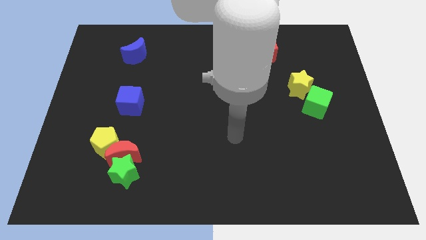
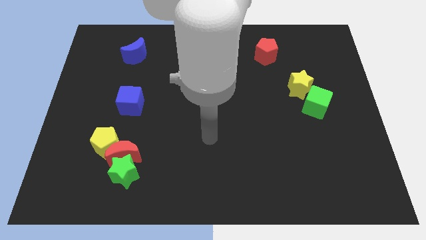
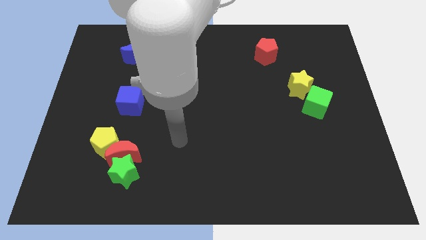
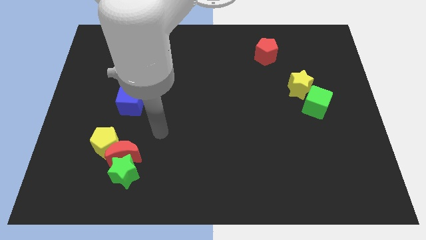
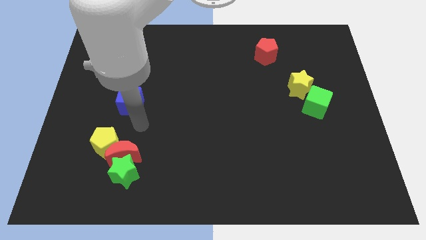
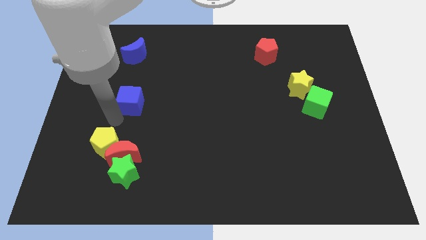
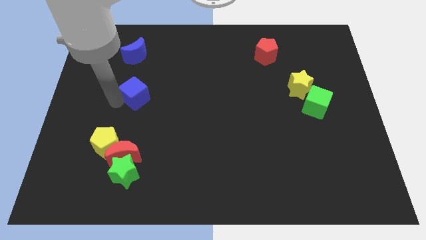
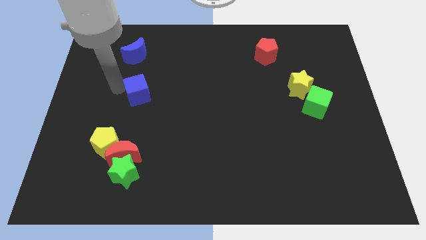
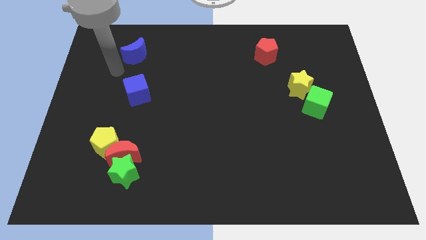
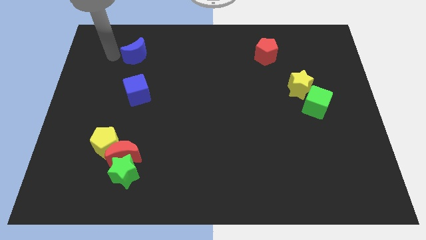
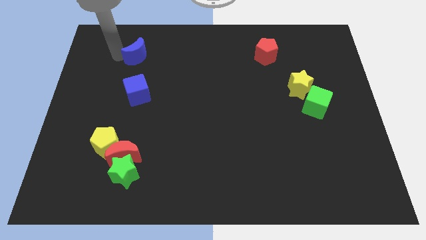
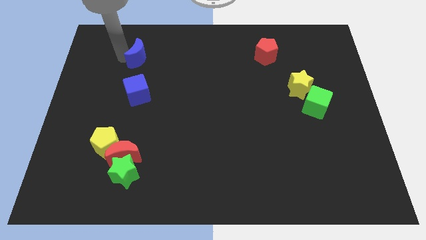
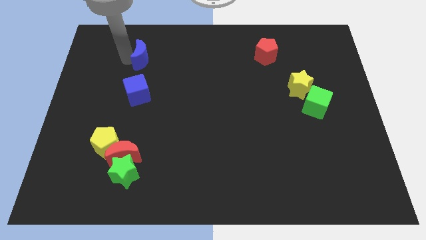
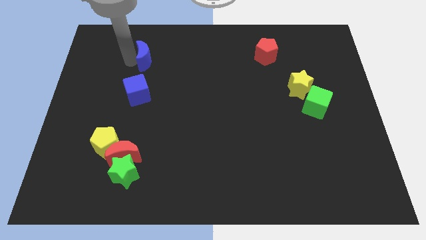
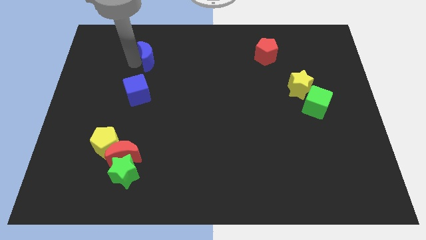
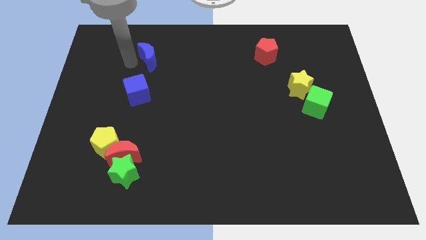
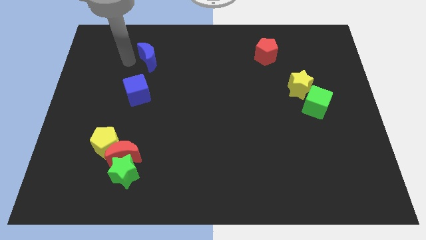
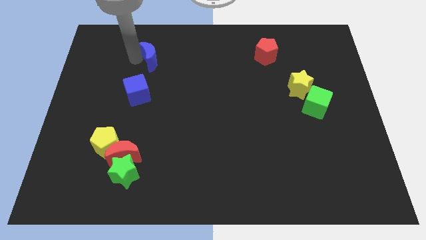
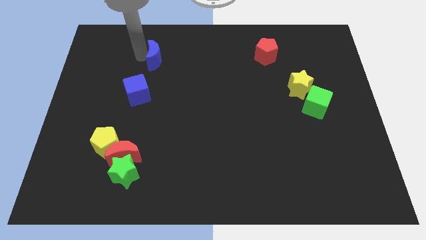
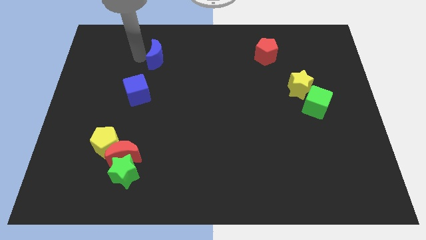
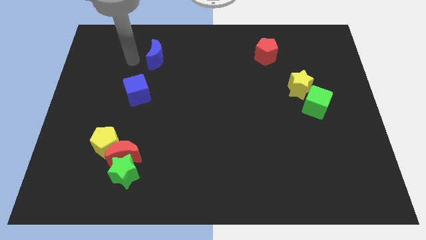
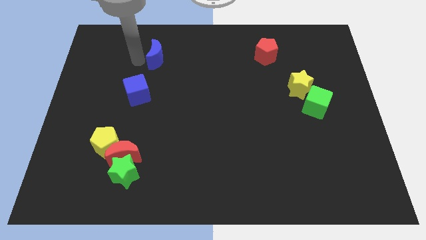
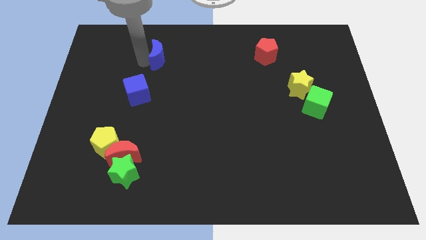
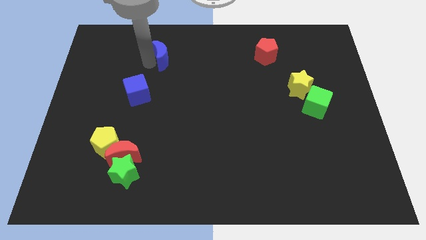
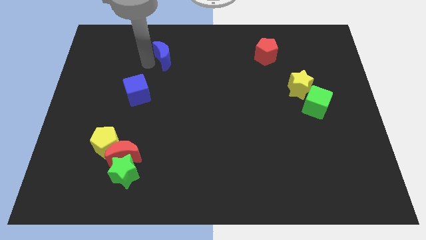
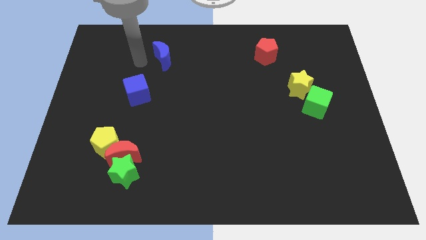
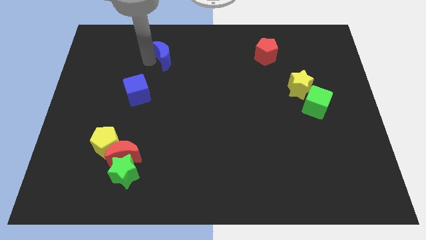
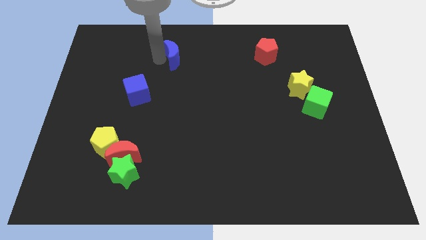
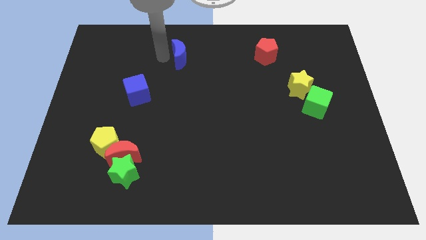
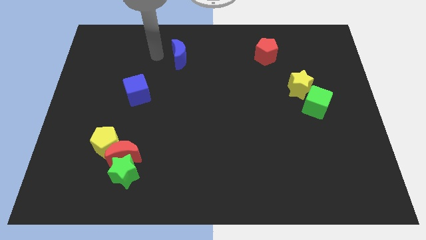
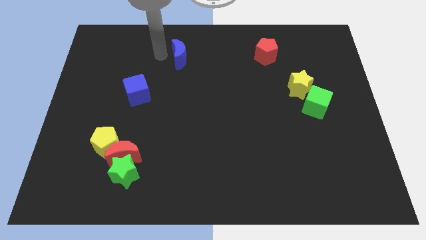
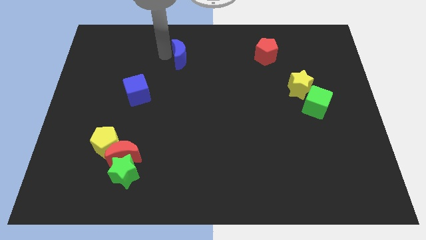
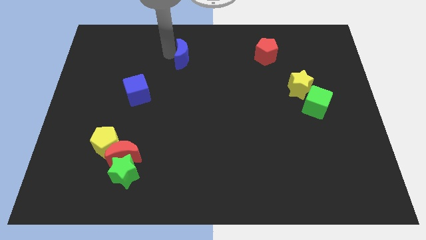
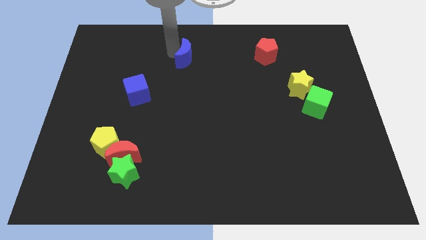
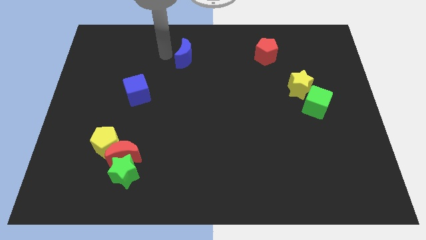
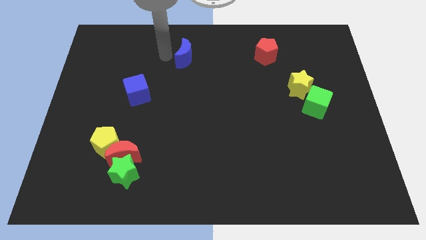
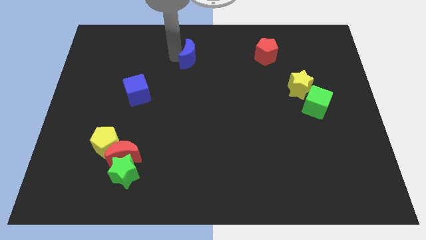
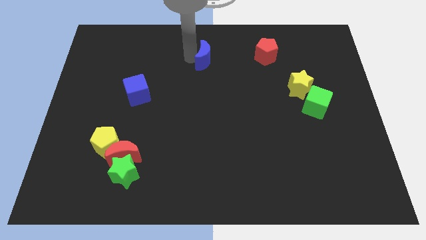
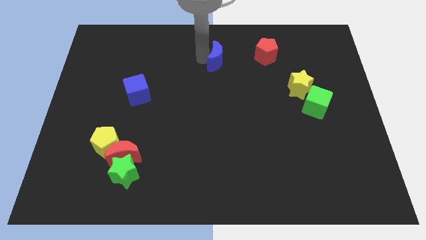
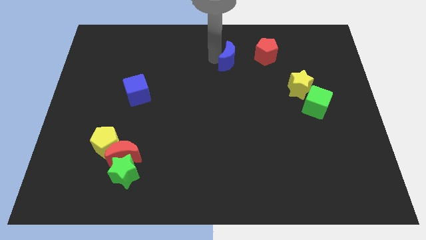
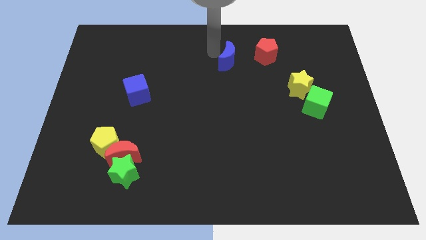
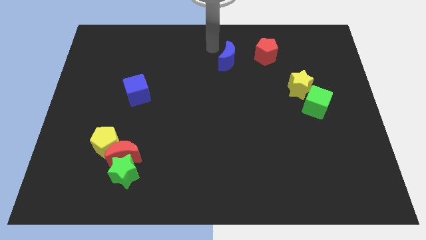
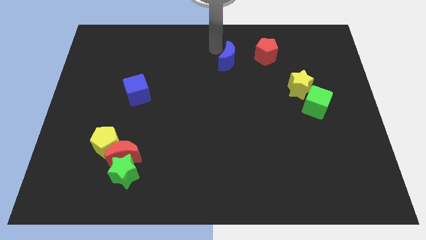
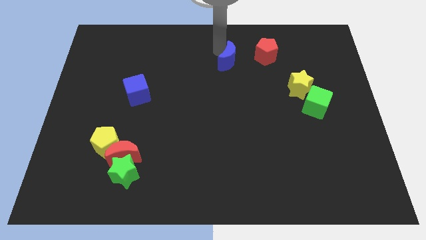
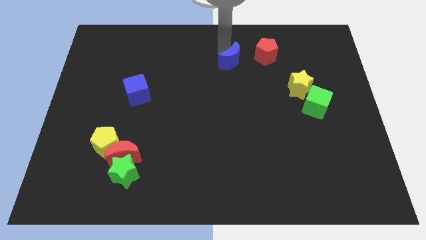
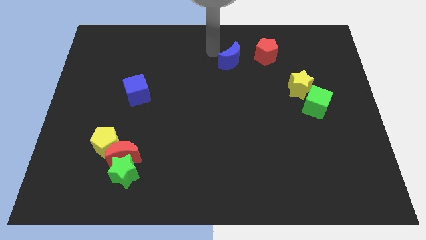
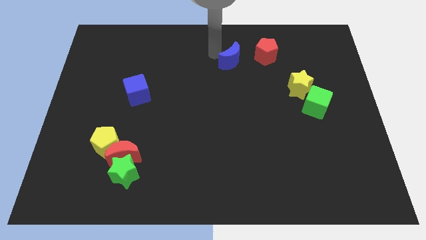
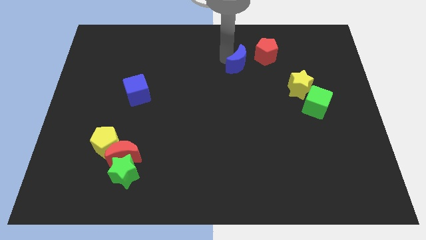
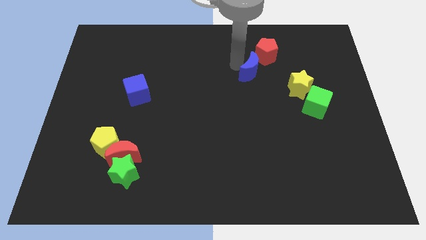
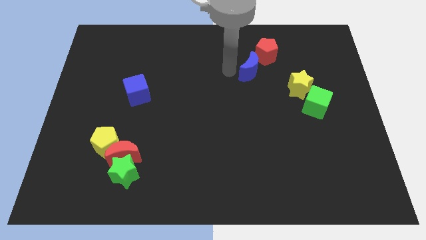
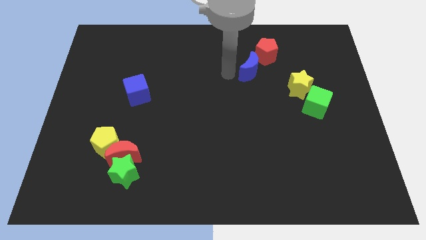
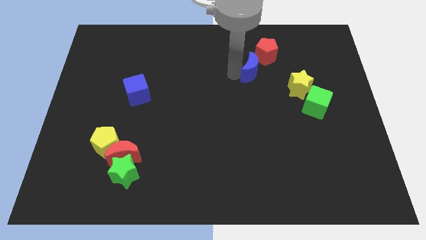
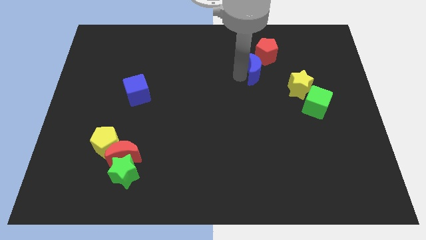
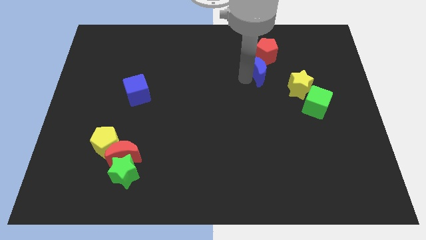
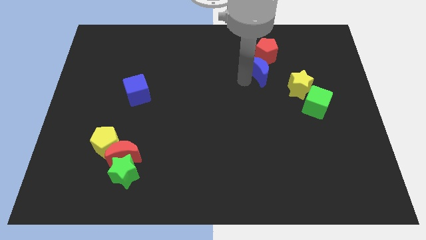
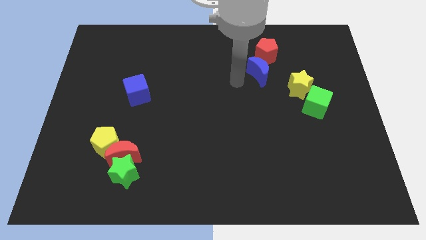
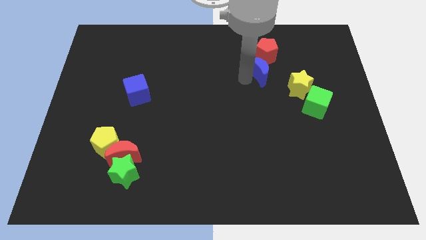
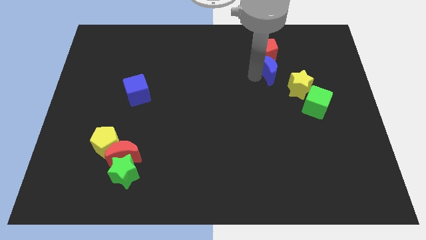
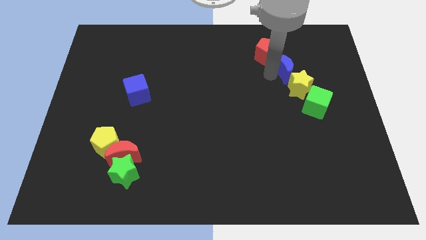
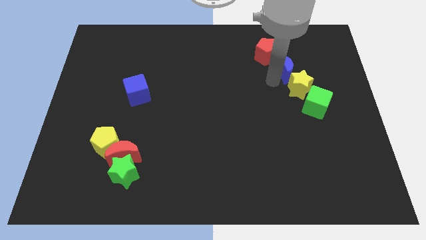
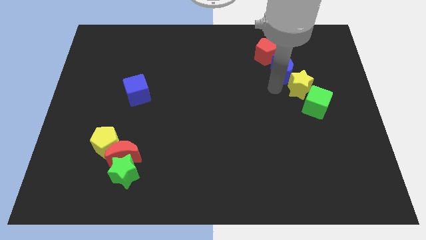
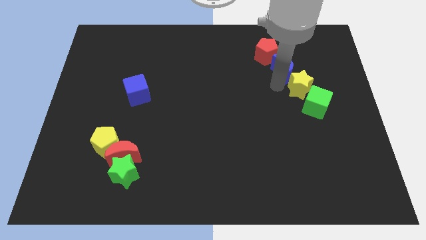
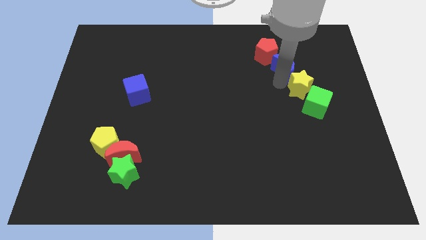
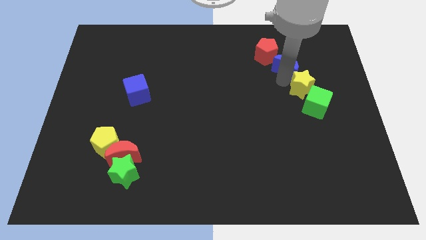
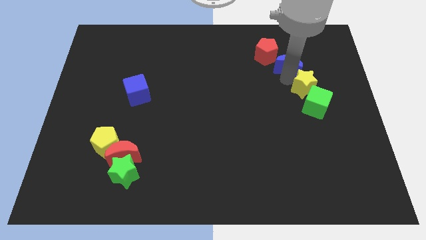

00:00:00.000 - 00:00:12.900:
push the blue moon to the right side of the red pentagon

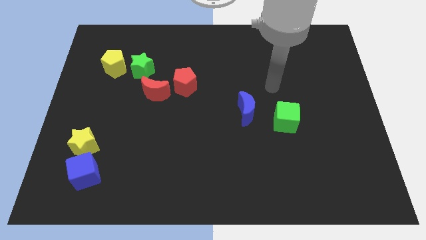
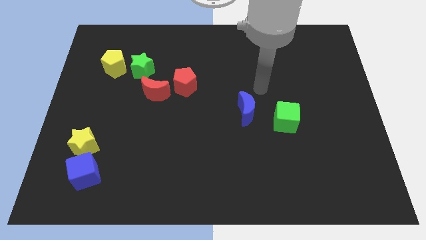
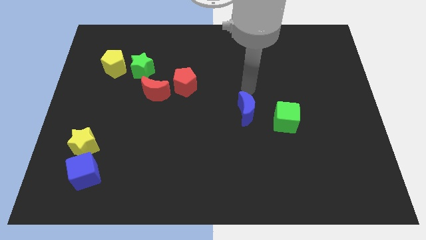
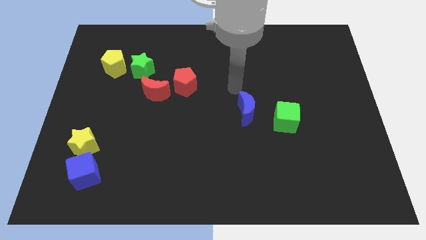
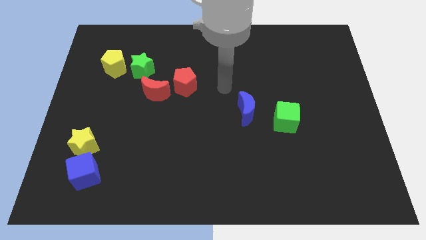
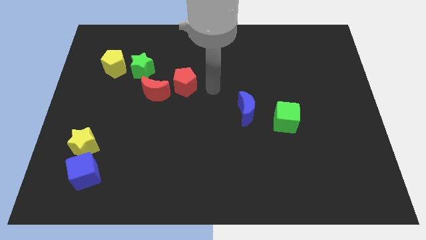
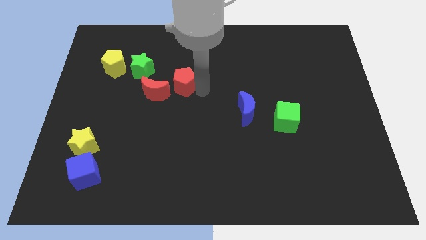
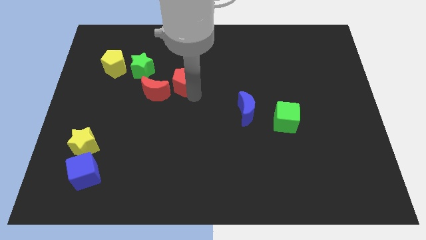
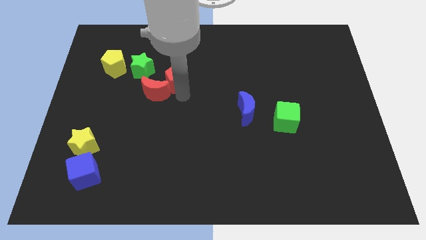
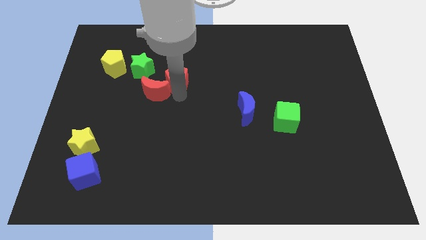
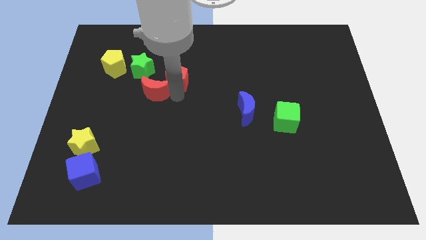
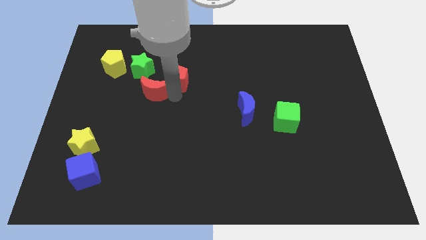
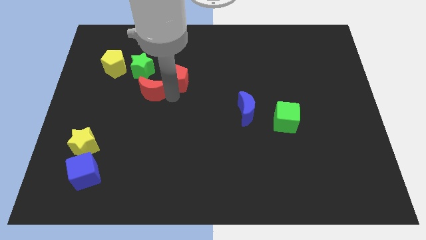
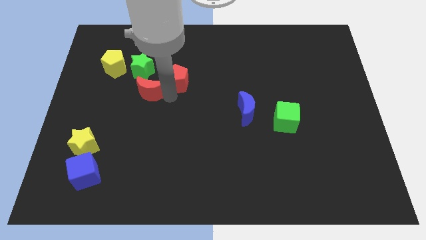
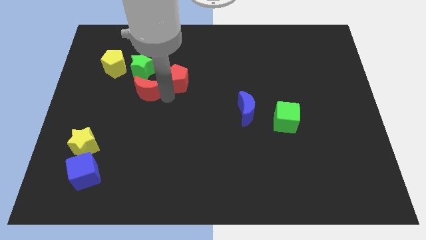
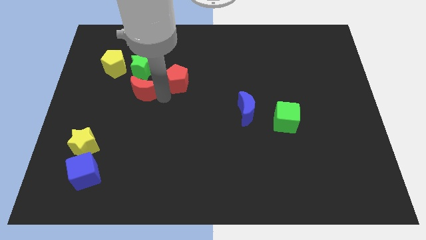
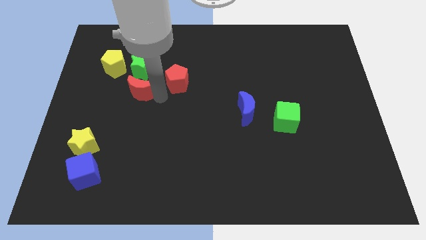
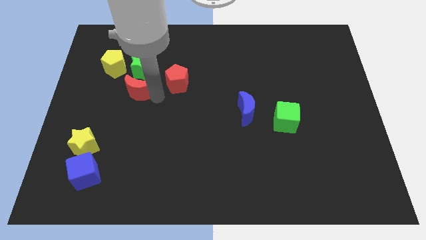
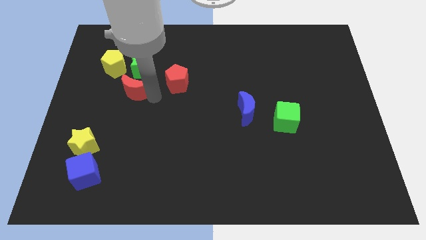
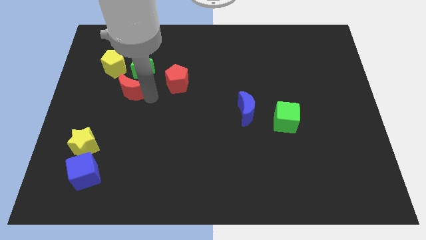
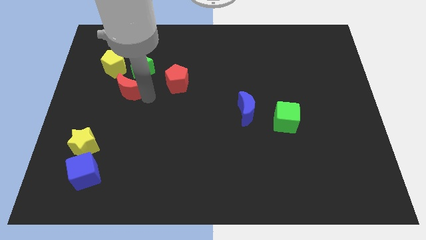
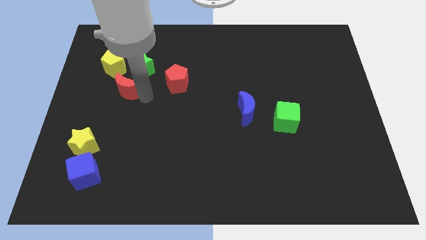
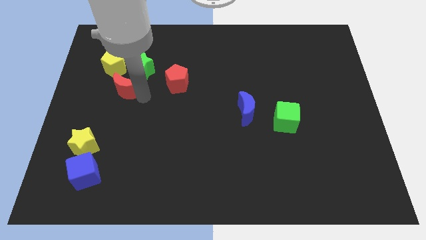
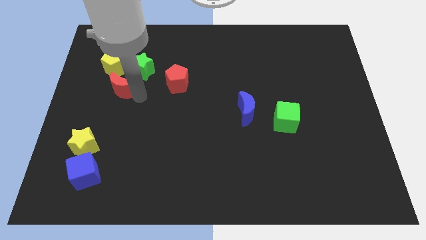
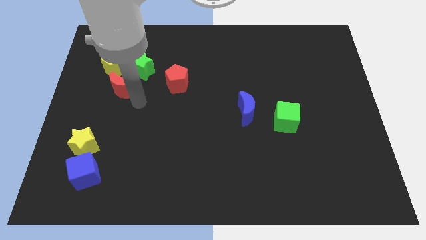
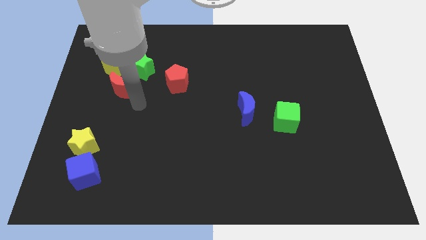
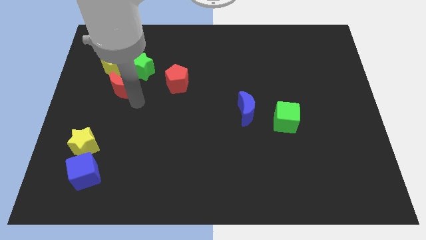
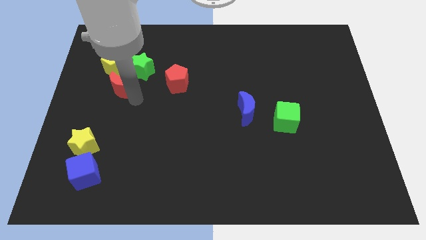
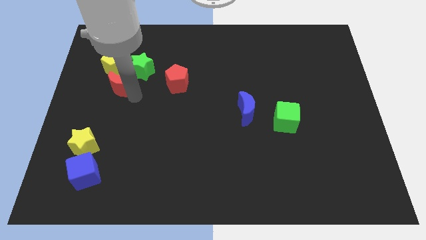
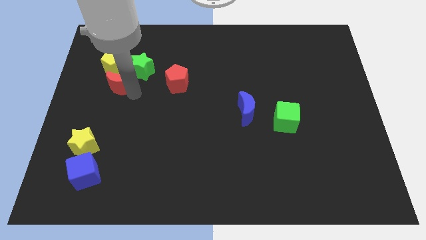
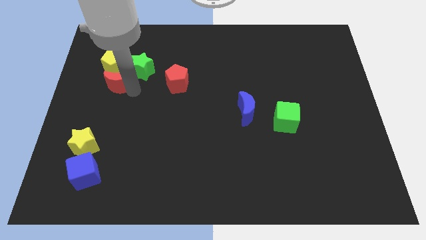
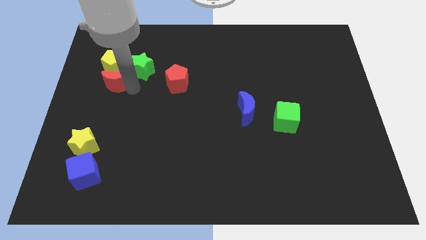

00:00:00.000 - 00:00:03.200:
push the red moon to the left side of the green star
